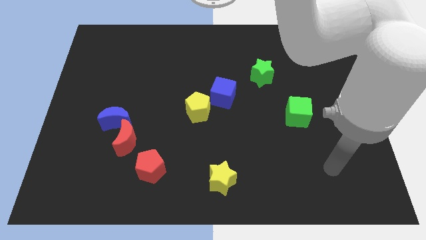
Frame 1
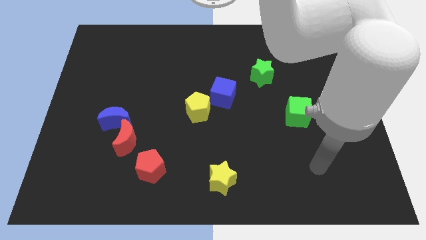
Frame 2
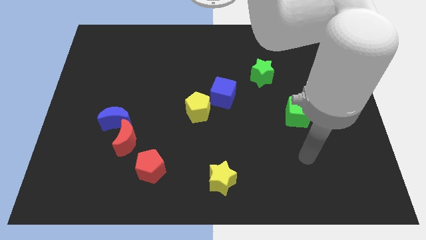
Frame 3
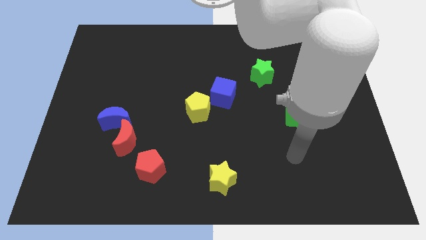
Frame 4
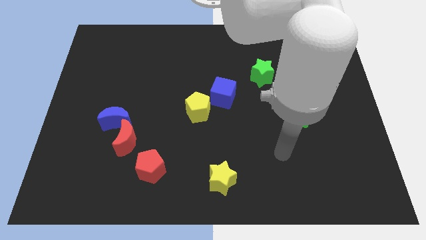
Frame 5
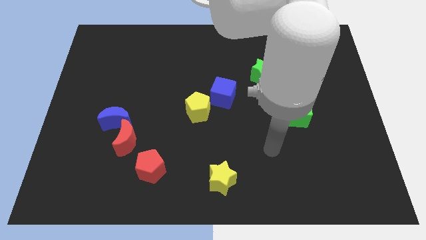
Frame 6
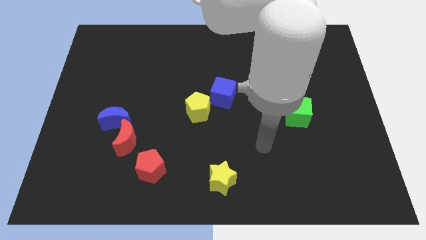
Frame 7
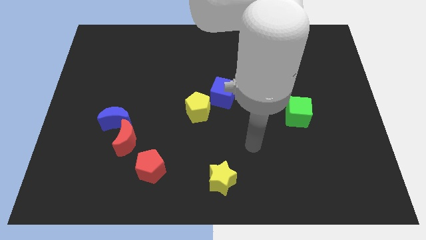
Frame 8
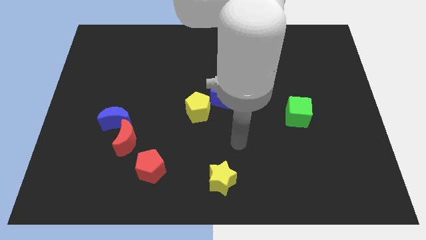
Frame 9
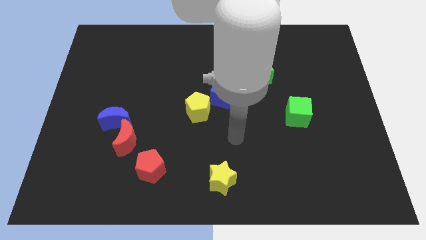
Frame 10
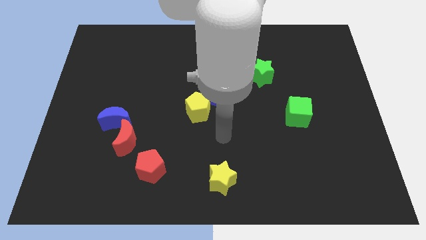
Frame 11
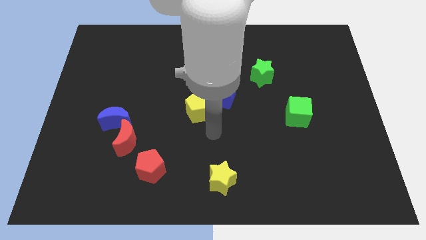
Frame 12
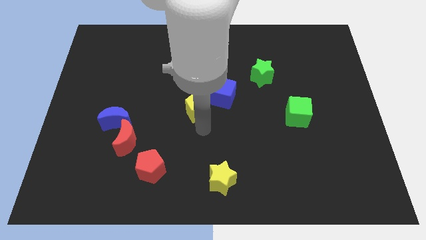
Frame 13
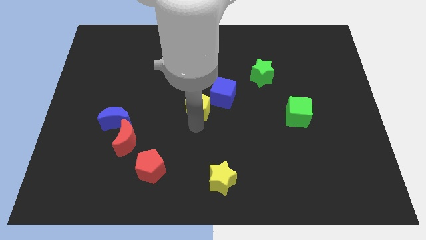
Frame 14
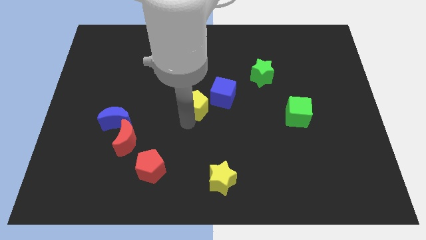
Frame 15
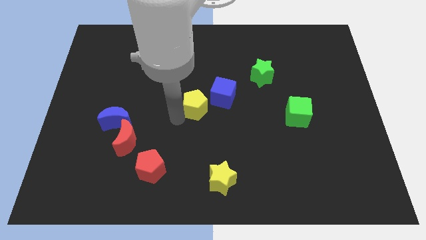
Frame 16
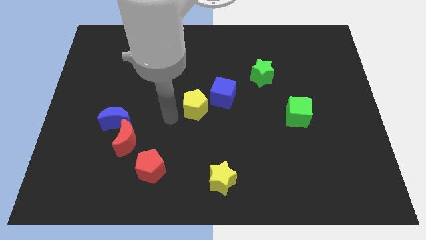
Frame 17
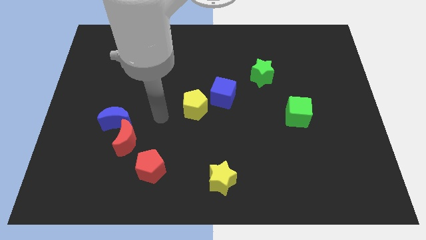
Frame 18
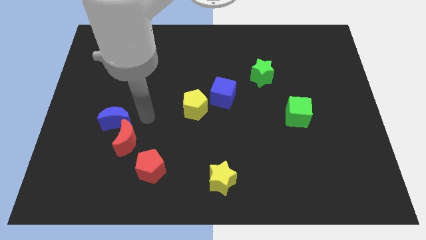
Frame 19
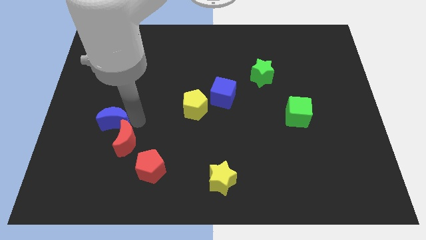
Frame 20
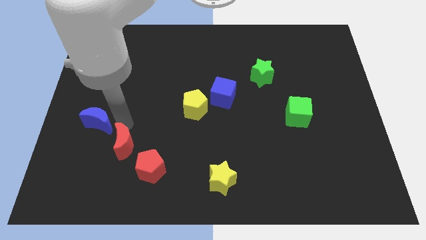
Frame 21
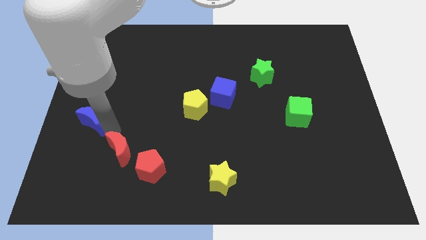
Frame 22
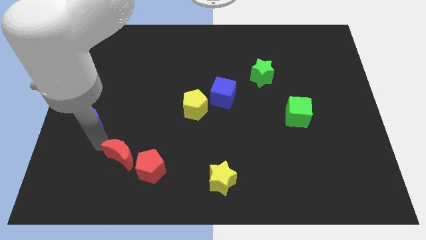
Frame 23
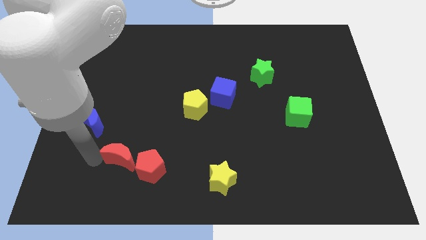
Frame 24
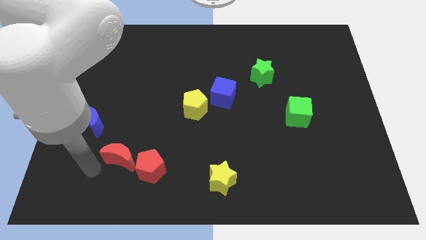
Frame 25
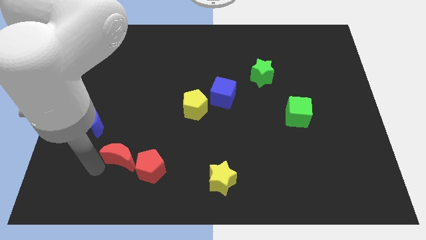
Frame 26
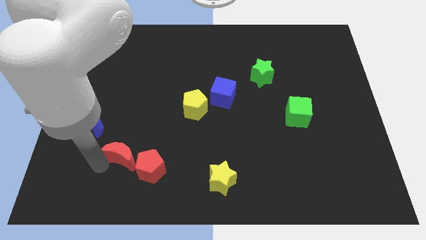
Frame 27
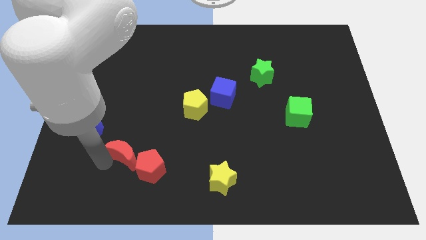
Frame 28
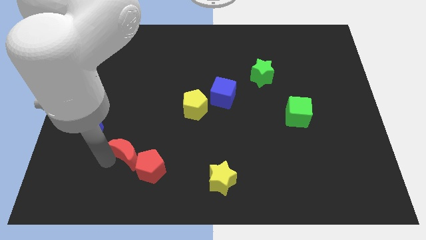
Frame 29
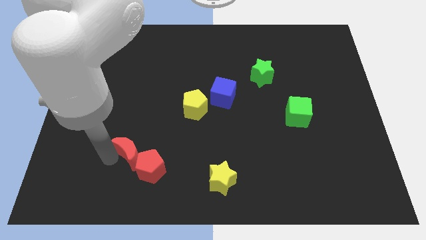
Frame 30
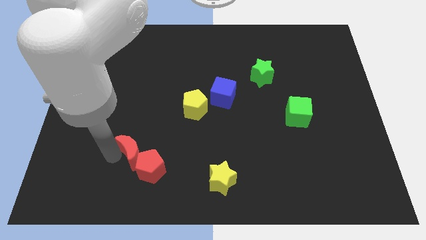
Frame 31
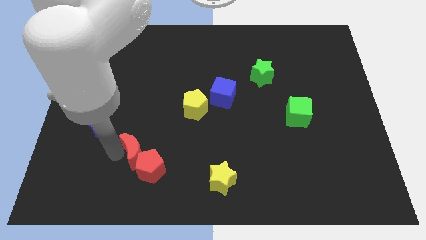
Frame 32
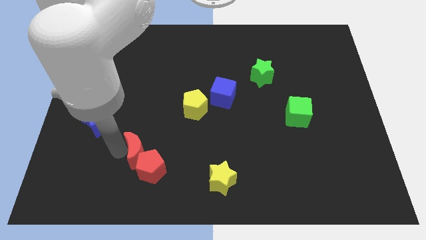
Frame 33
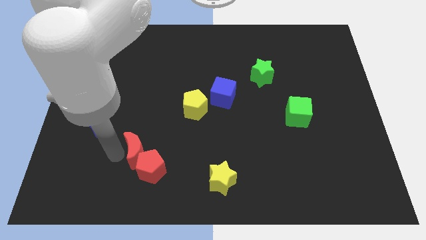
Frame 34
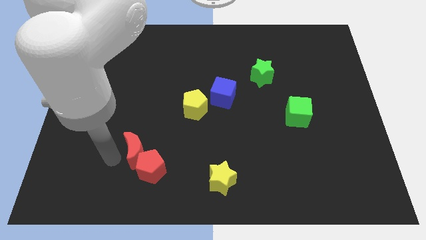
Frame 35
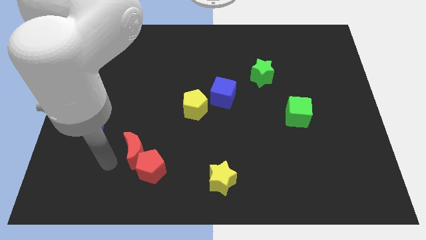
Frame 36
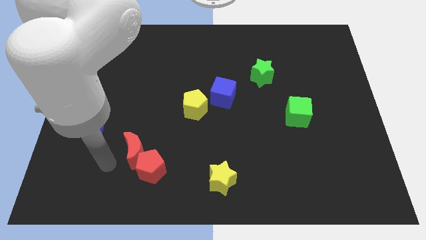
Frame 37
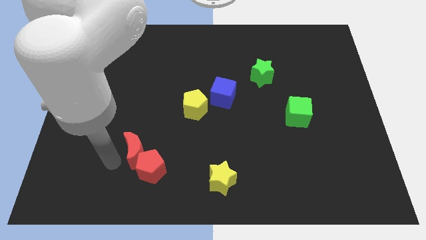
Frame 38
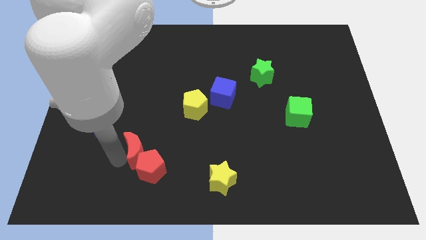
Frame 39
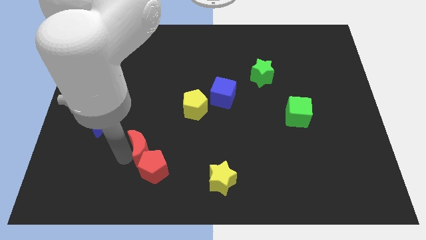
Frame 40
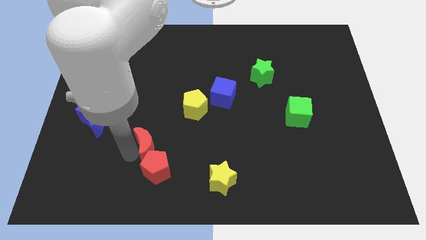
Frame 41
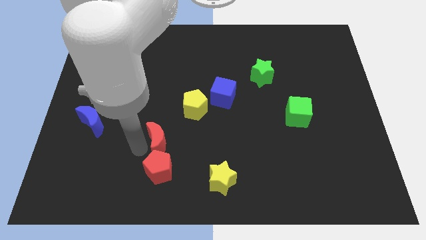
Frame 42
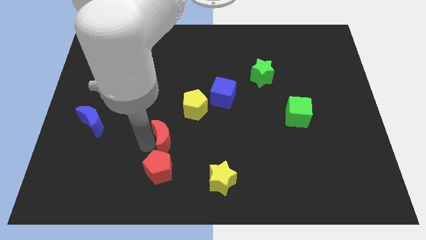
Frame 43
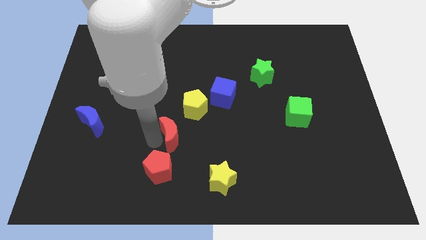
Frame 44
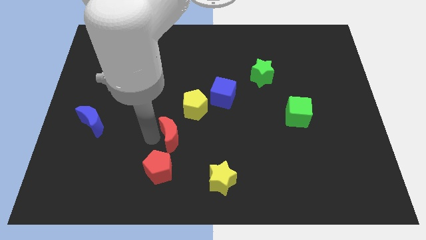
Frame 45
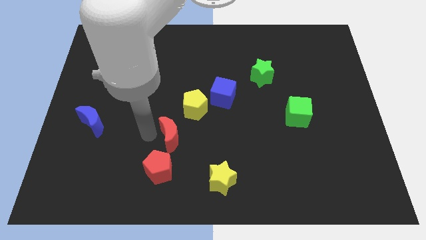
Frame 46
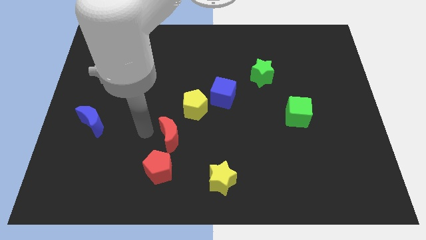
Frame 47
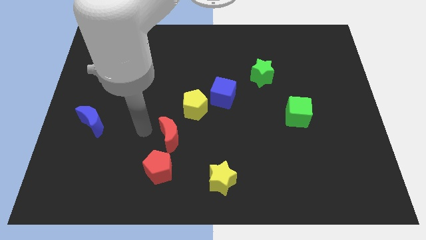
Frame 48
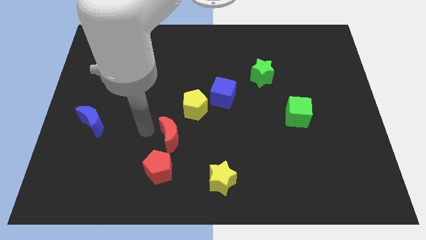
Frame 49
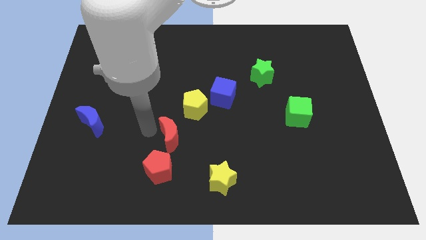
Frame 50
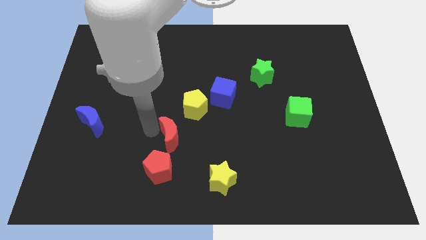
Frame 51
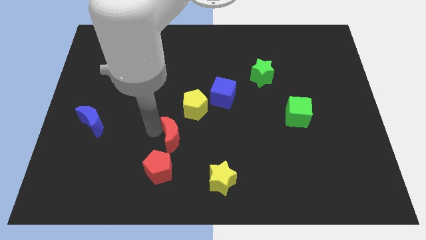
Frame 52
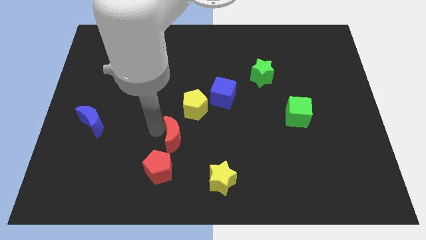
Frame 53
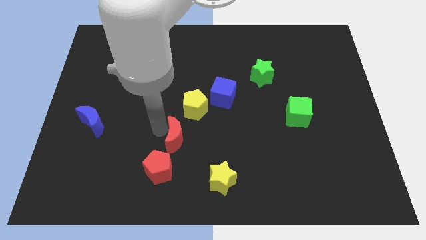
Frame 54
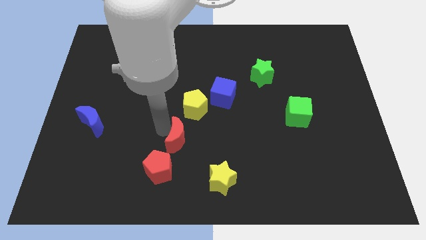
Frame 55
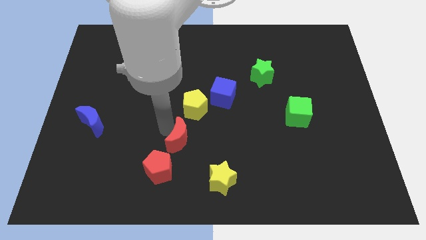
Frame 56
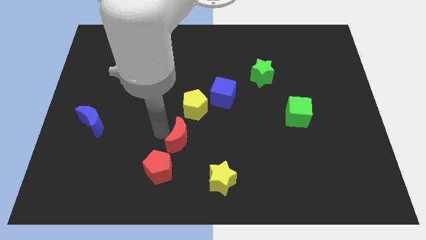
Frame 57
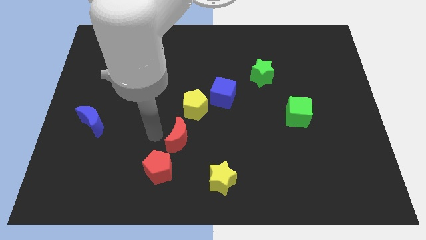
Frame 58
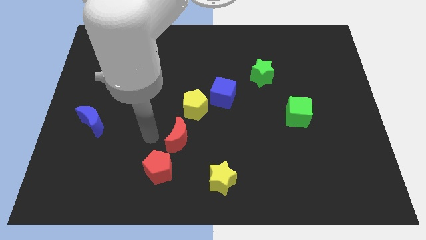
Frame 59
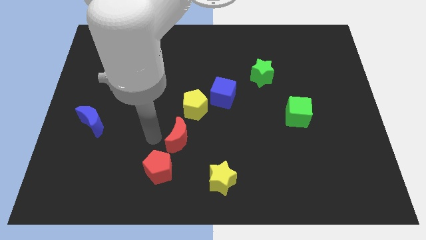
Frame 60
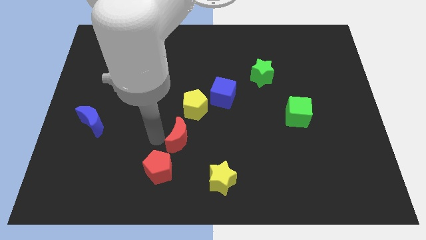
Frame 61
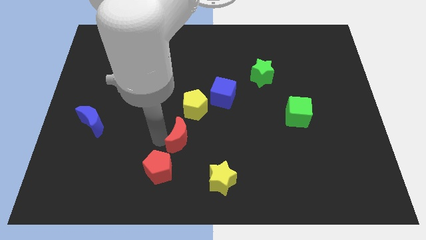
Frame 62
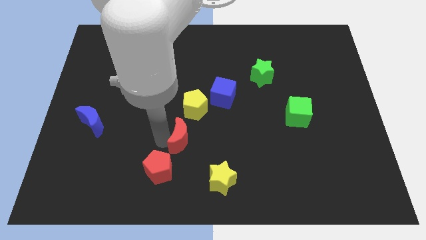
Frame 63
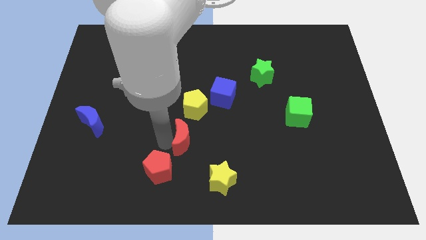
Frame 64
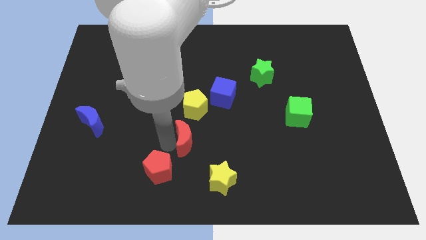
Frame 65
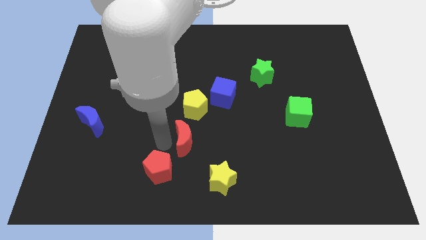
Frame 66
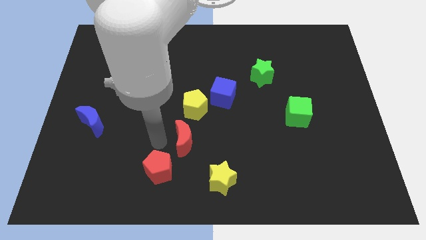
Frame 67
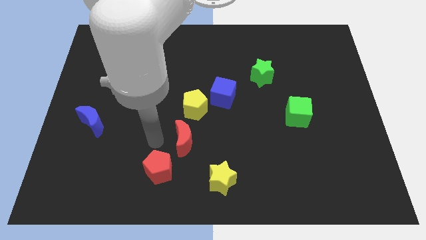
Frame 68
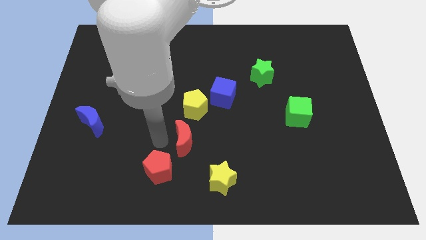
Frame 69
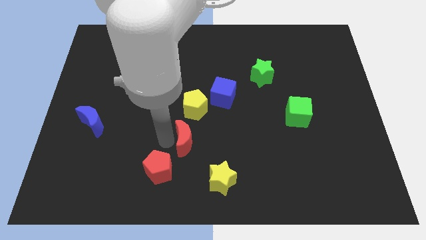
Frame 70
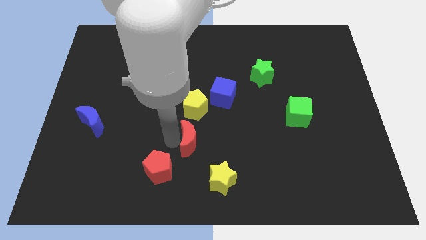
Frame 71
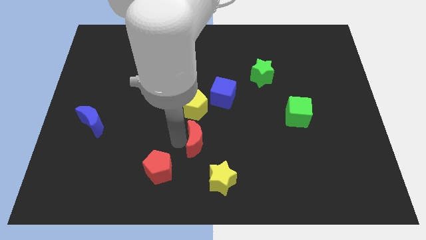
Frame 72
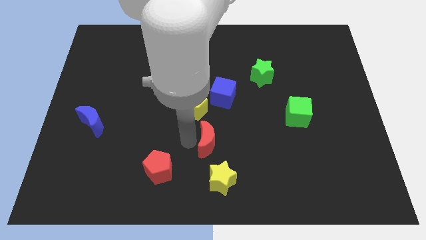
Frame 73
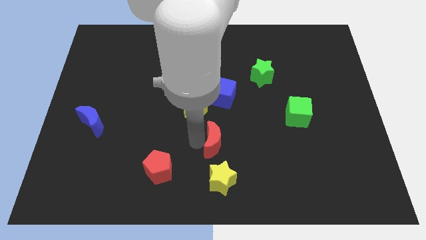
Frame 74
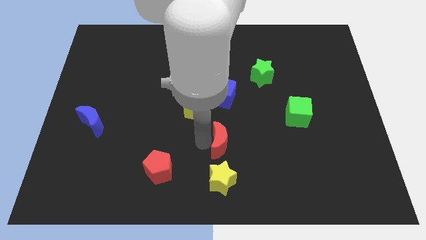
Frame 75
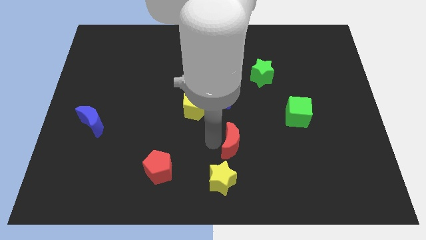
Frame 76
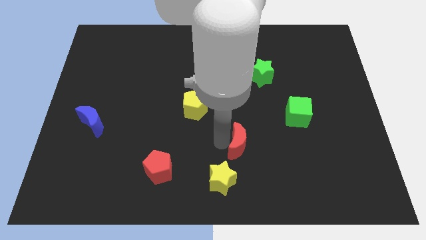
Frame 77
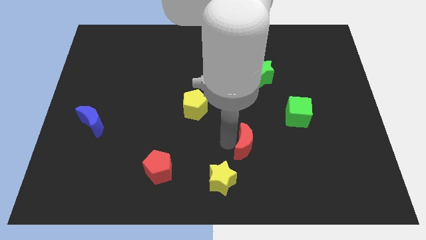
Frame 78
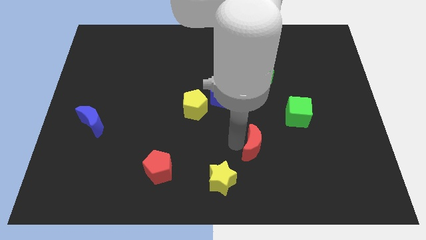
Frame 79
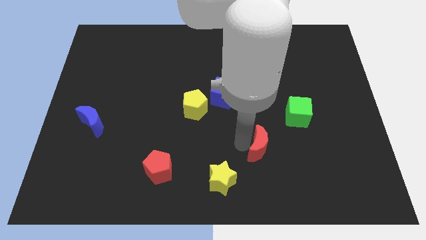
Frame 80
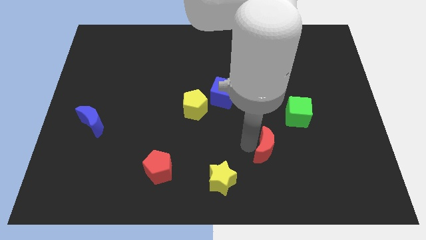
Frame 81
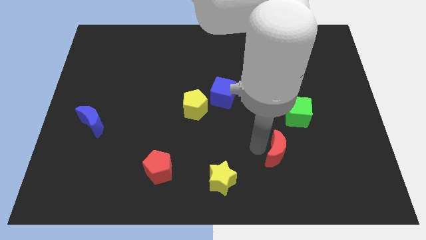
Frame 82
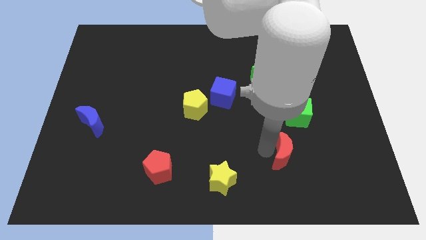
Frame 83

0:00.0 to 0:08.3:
put the red moon below the green cube
